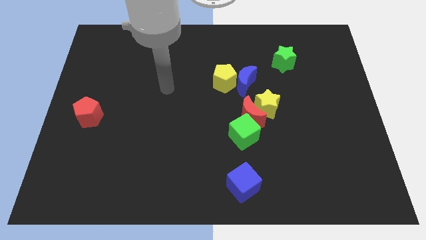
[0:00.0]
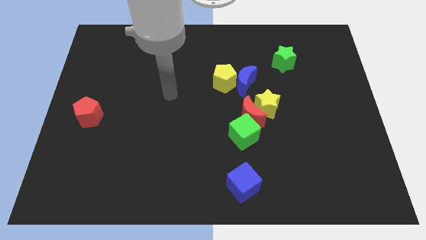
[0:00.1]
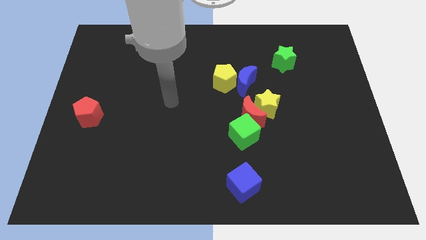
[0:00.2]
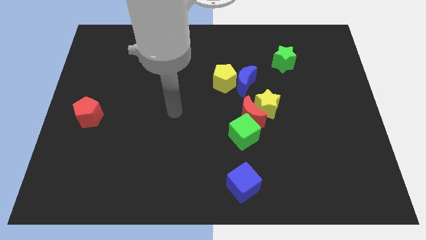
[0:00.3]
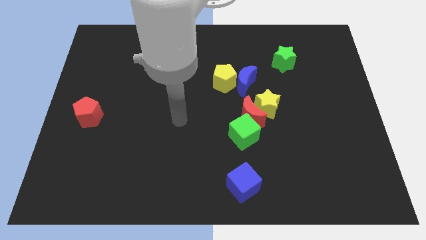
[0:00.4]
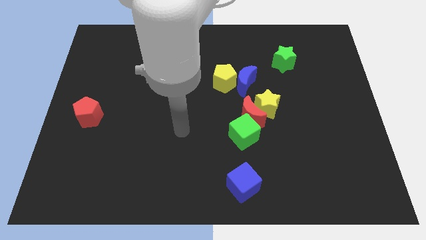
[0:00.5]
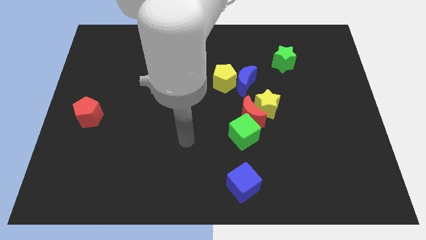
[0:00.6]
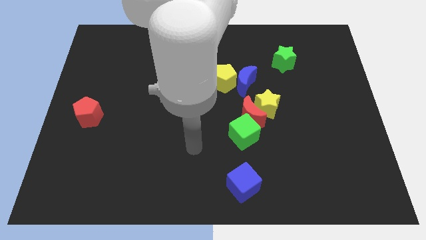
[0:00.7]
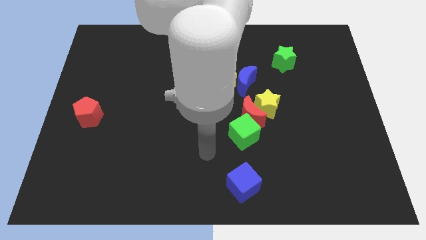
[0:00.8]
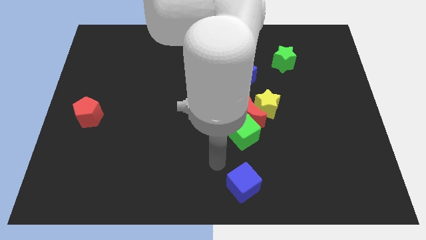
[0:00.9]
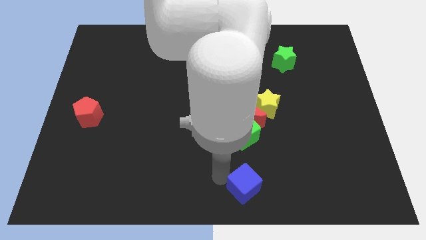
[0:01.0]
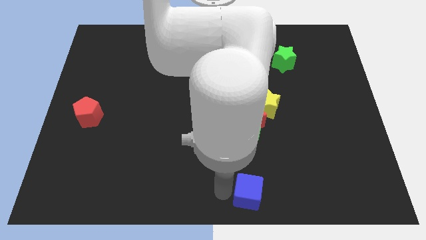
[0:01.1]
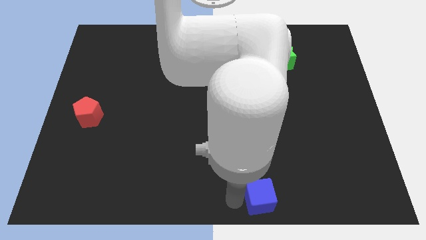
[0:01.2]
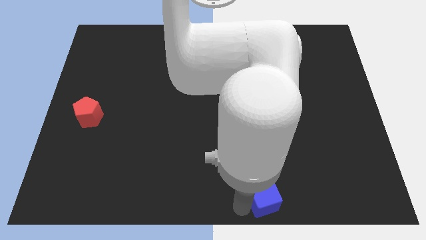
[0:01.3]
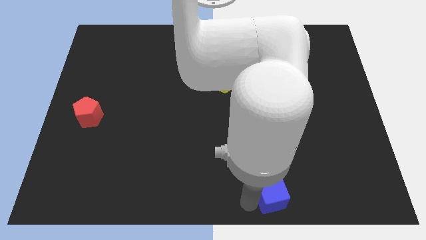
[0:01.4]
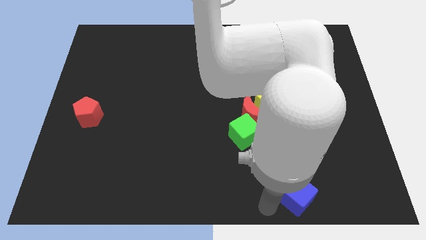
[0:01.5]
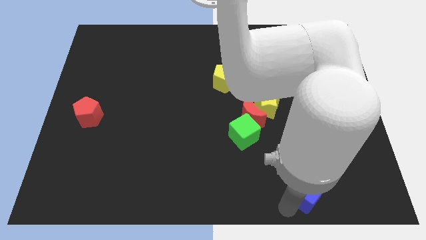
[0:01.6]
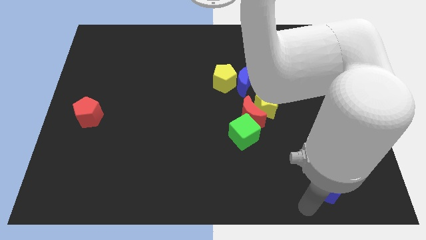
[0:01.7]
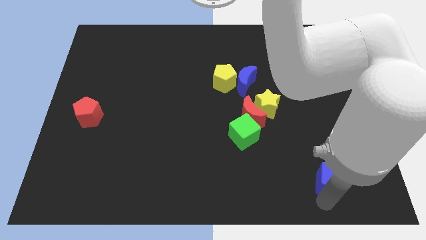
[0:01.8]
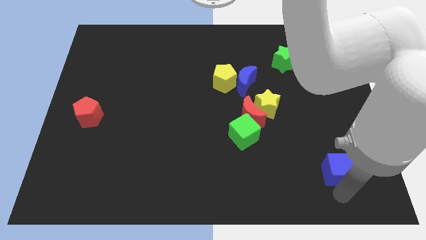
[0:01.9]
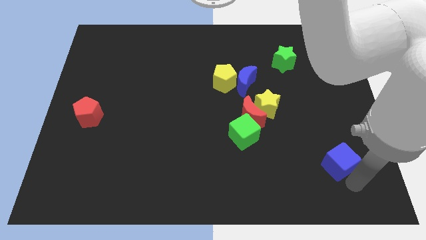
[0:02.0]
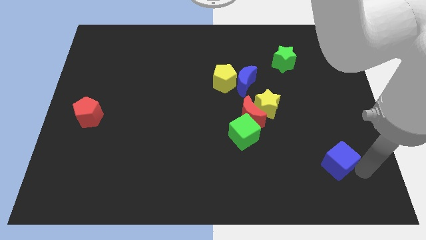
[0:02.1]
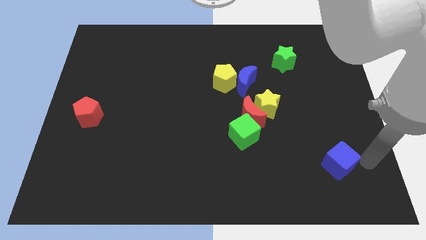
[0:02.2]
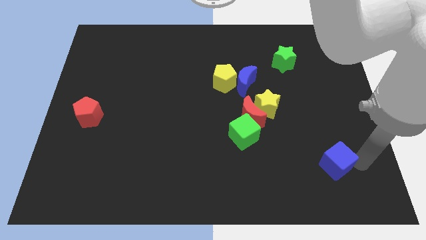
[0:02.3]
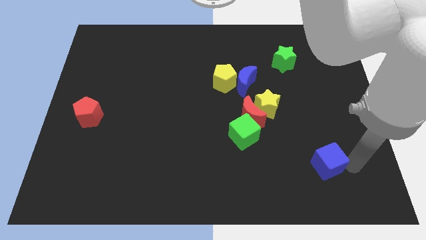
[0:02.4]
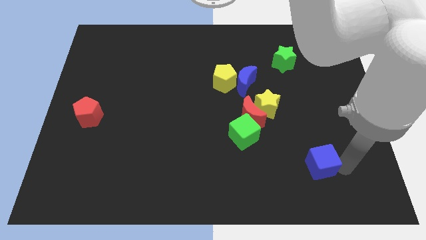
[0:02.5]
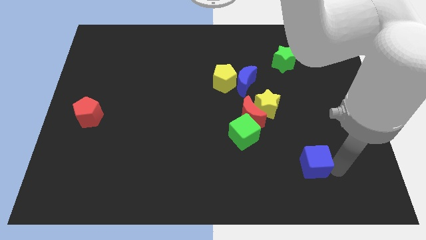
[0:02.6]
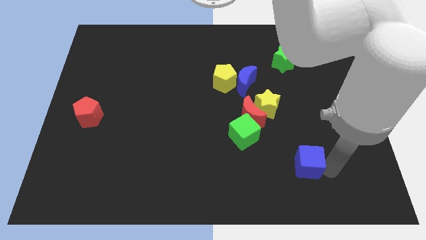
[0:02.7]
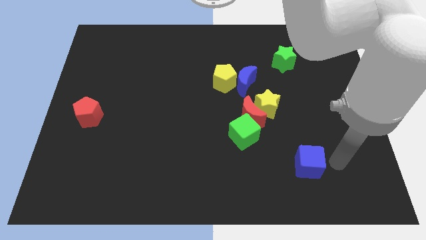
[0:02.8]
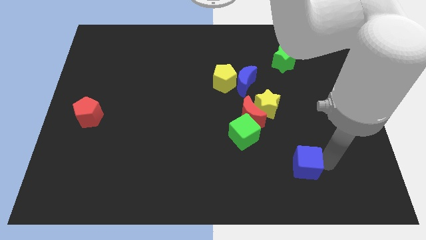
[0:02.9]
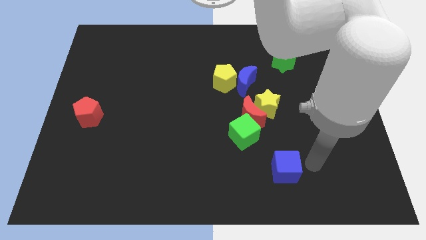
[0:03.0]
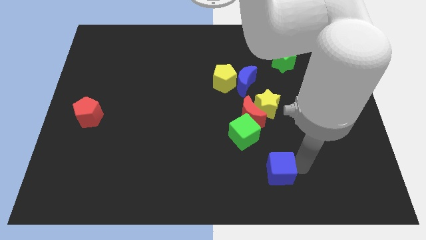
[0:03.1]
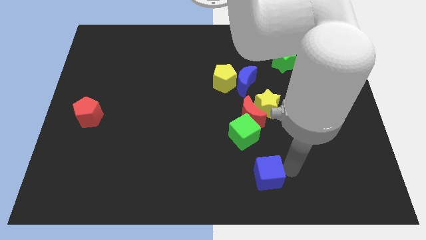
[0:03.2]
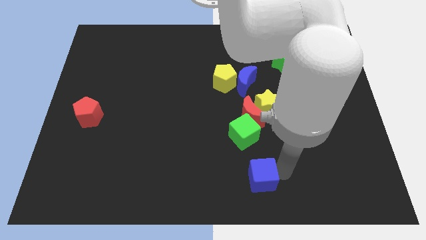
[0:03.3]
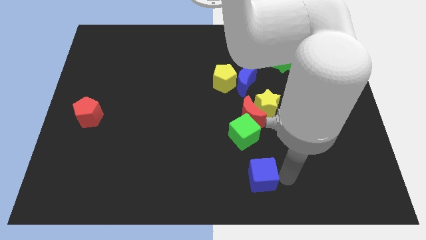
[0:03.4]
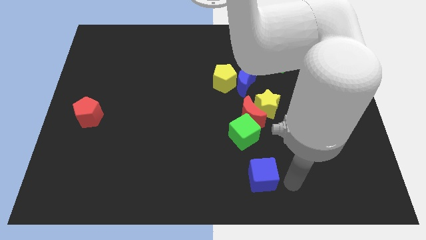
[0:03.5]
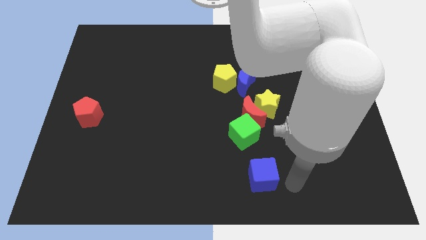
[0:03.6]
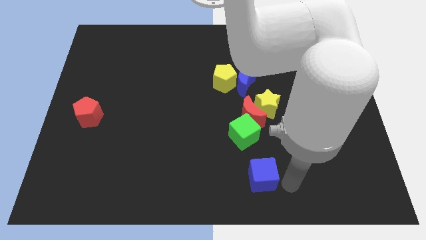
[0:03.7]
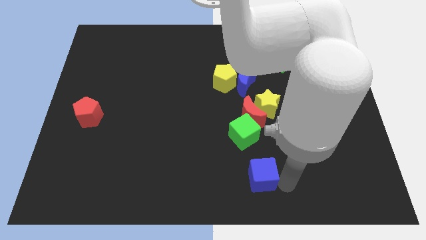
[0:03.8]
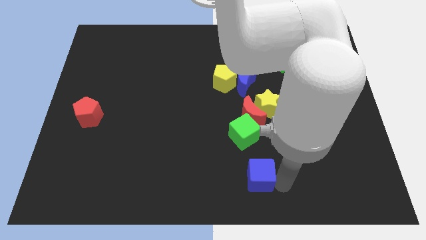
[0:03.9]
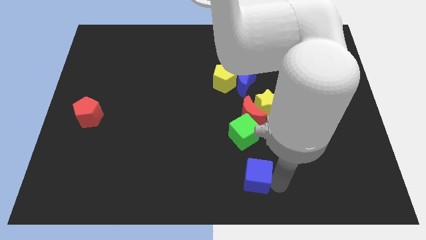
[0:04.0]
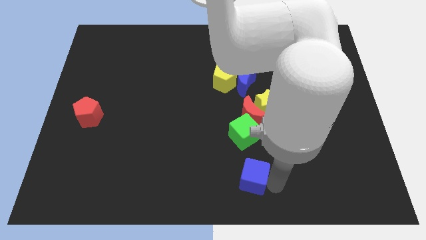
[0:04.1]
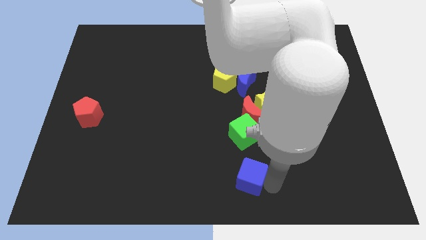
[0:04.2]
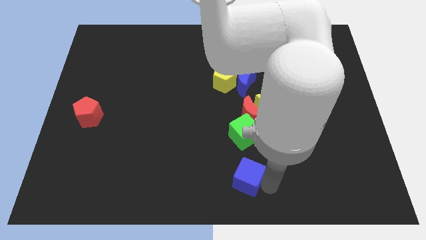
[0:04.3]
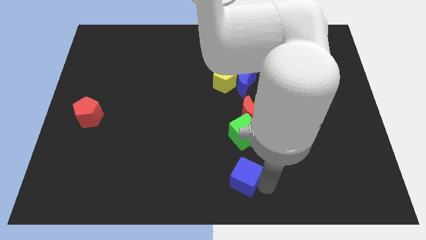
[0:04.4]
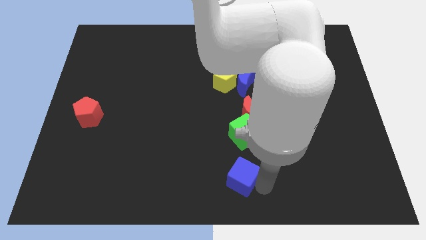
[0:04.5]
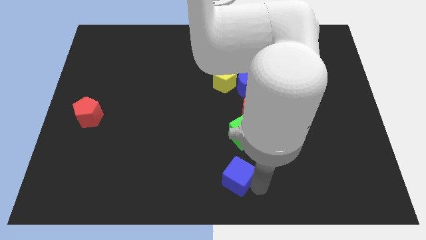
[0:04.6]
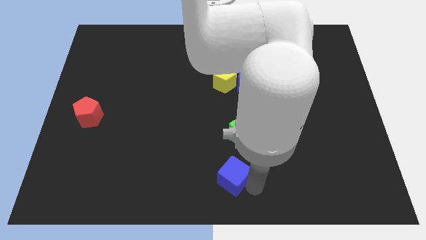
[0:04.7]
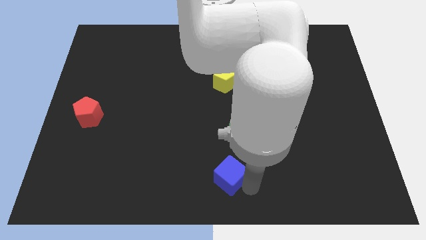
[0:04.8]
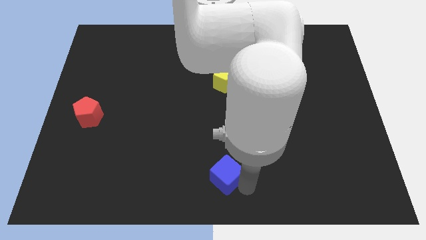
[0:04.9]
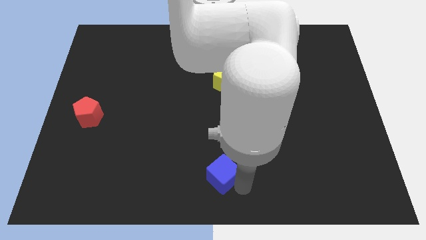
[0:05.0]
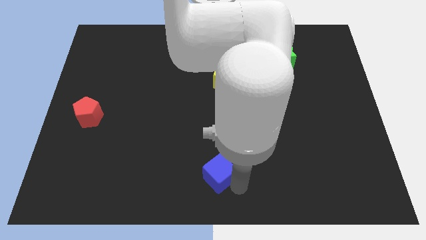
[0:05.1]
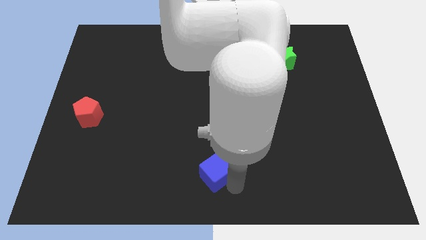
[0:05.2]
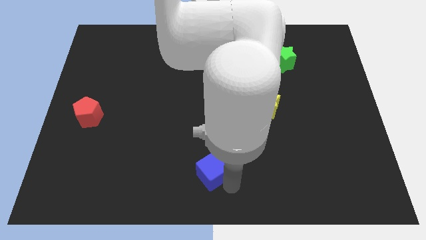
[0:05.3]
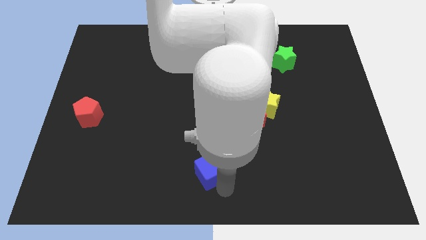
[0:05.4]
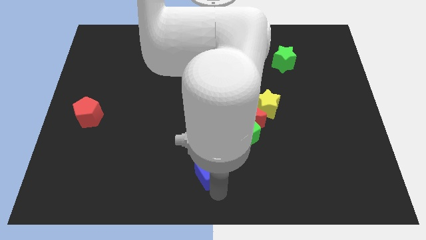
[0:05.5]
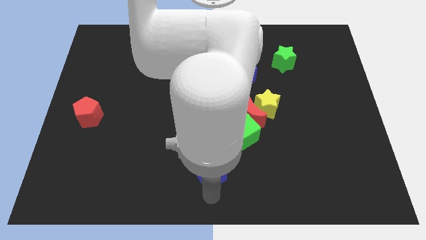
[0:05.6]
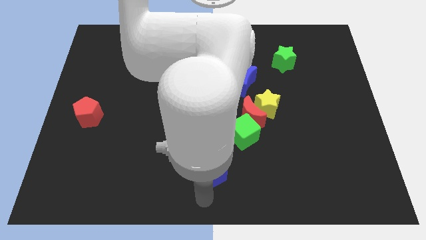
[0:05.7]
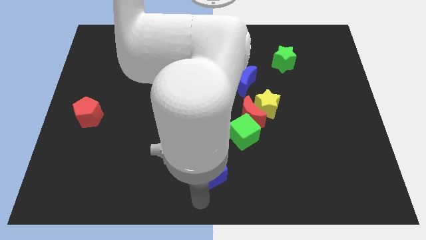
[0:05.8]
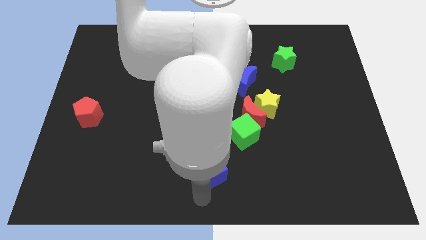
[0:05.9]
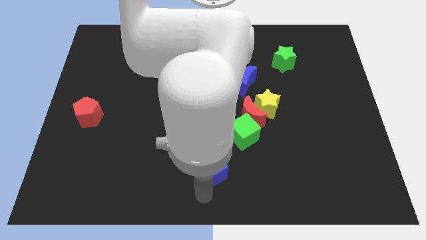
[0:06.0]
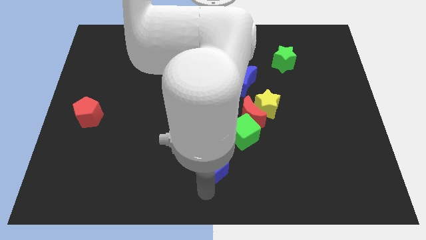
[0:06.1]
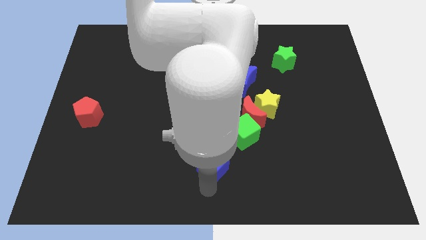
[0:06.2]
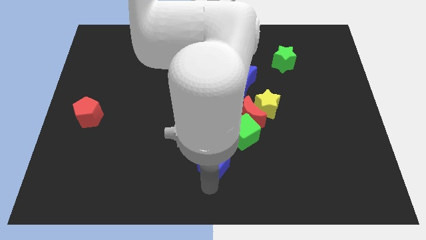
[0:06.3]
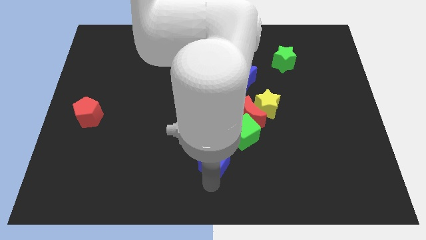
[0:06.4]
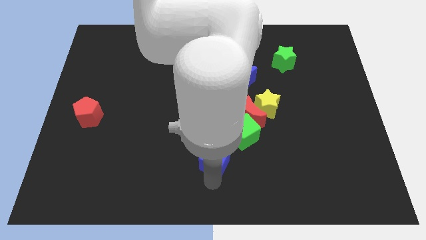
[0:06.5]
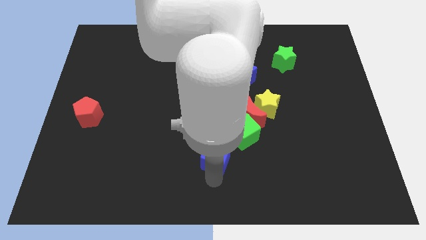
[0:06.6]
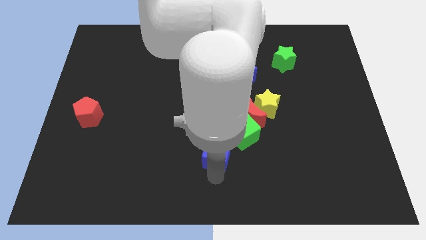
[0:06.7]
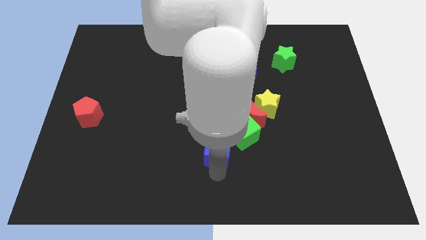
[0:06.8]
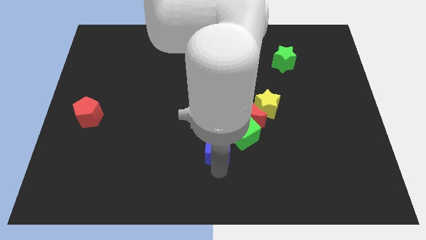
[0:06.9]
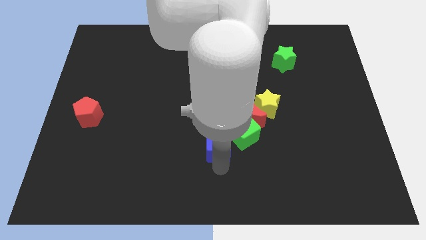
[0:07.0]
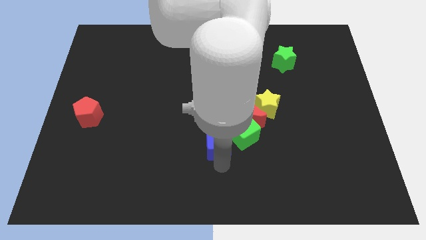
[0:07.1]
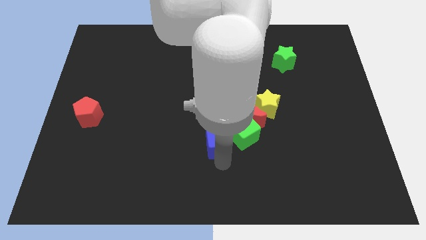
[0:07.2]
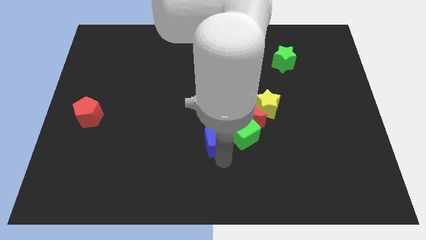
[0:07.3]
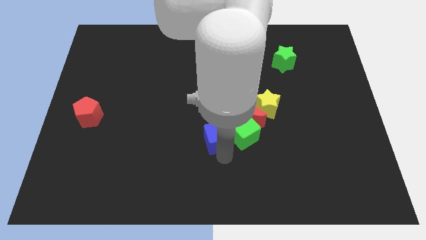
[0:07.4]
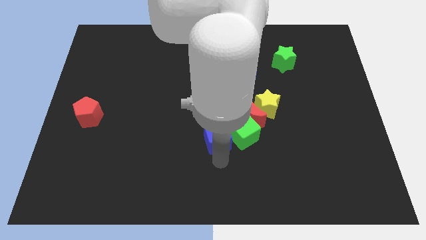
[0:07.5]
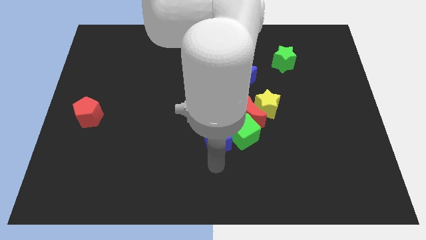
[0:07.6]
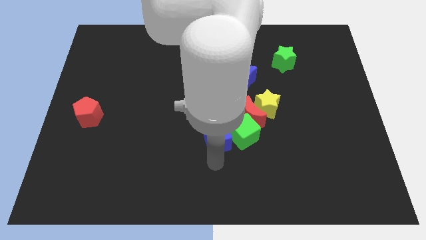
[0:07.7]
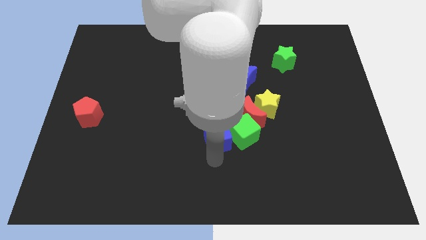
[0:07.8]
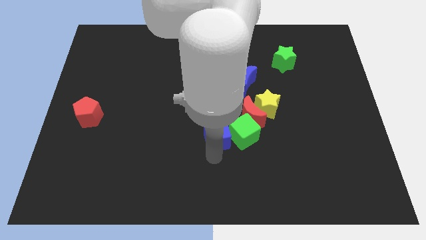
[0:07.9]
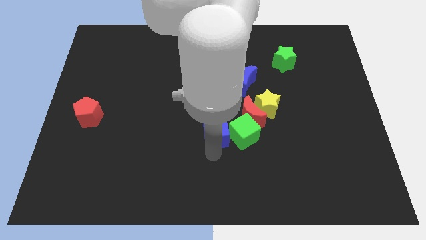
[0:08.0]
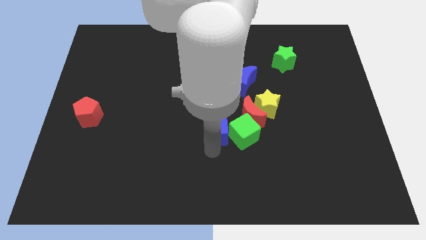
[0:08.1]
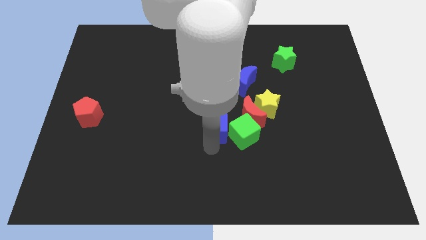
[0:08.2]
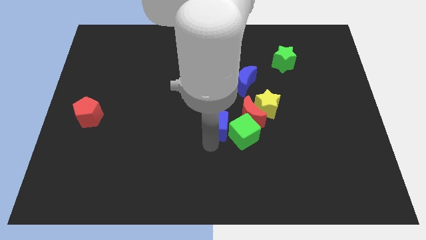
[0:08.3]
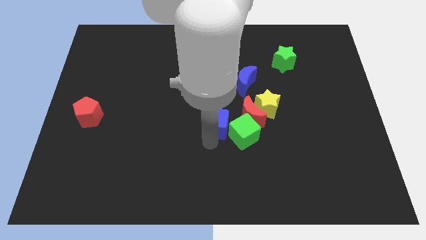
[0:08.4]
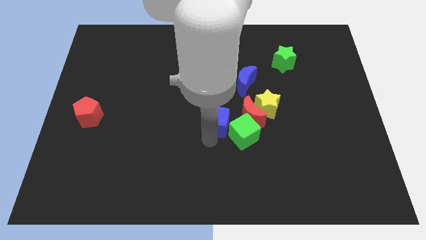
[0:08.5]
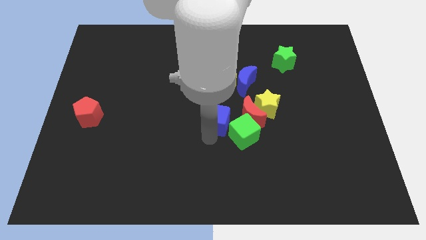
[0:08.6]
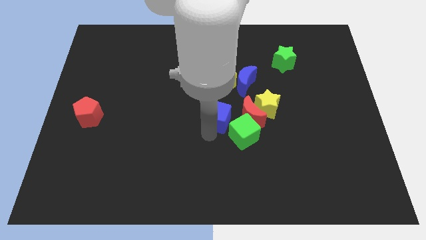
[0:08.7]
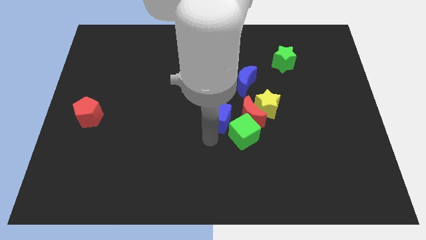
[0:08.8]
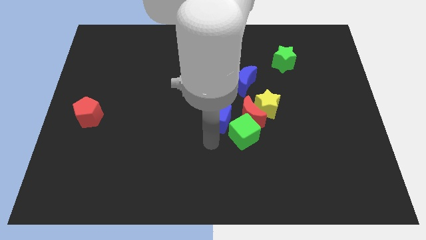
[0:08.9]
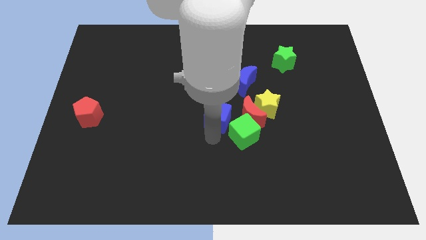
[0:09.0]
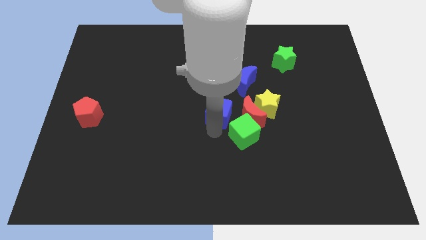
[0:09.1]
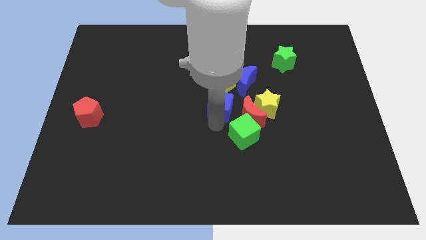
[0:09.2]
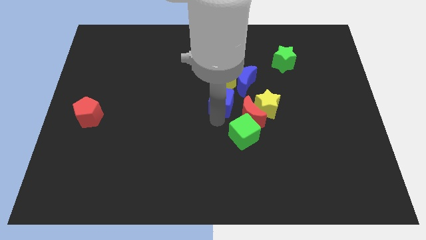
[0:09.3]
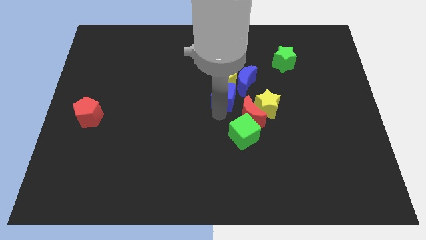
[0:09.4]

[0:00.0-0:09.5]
put the blue cube close to the yellow pentagon
